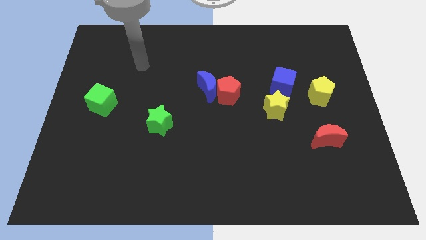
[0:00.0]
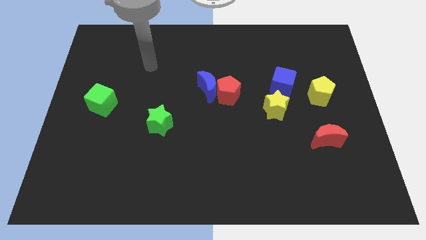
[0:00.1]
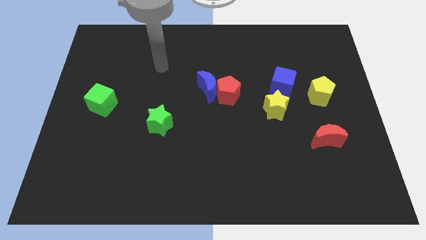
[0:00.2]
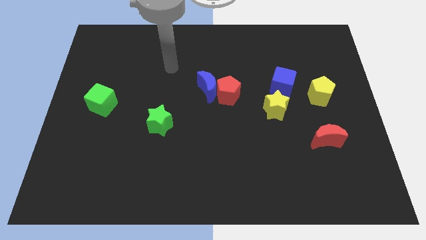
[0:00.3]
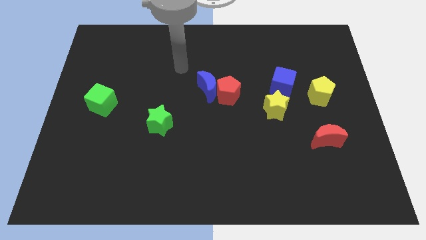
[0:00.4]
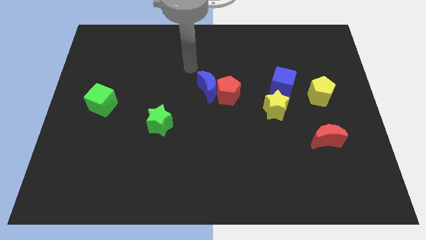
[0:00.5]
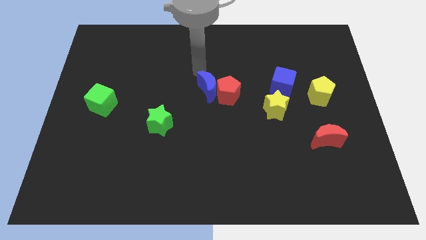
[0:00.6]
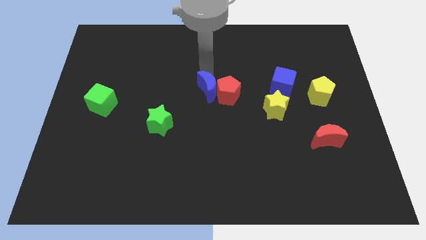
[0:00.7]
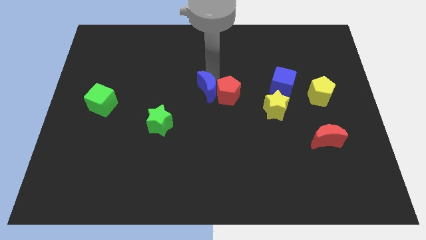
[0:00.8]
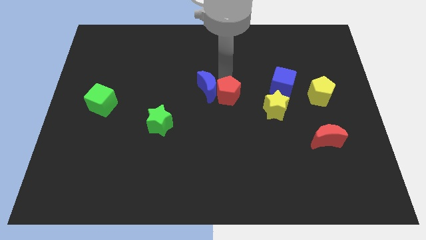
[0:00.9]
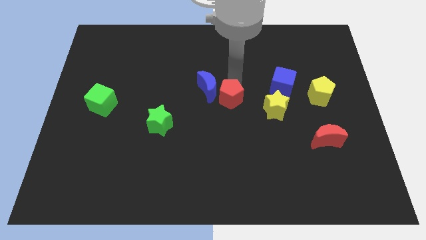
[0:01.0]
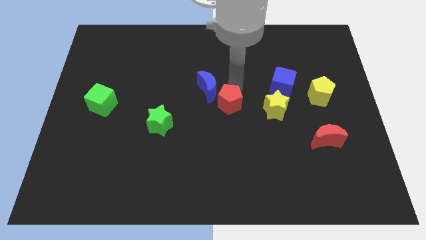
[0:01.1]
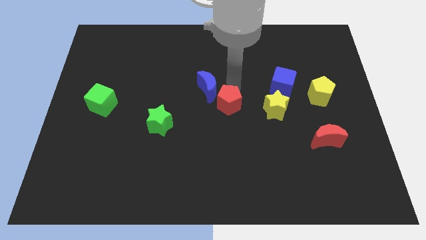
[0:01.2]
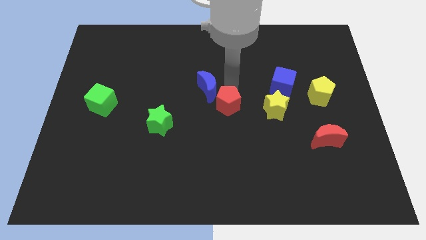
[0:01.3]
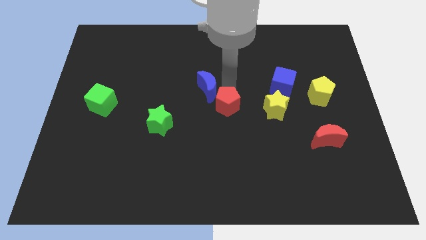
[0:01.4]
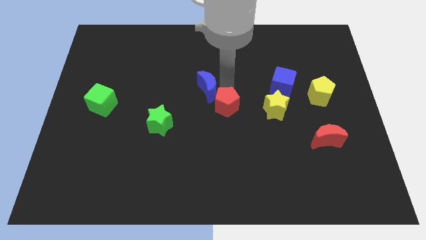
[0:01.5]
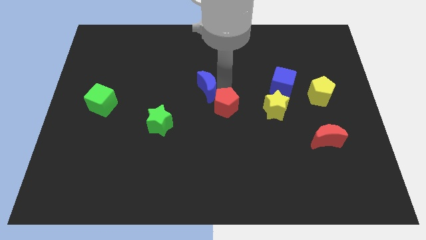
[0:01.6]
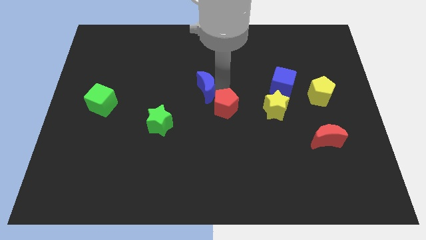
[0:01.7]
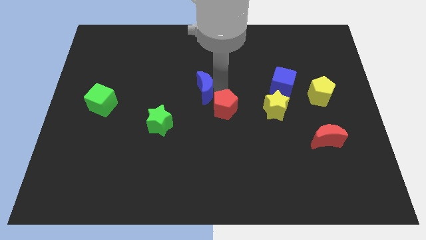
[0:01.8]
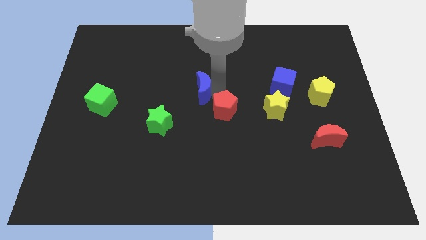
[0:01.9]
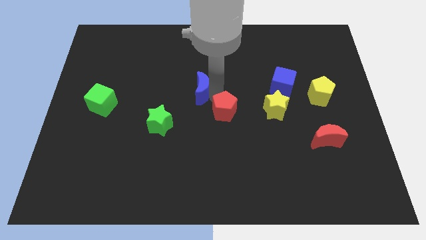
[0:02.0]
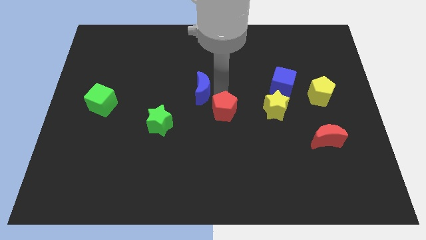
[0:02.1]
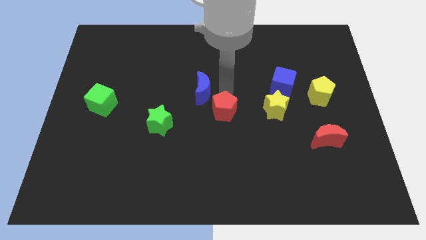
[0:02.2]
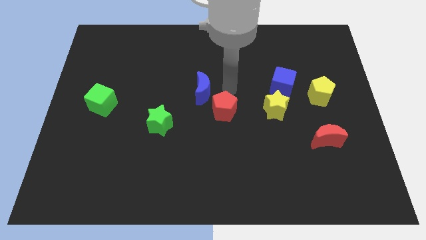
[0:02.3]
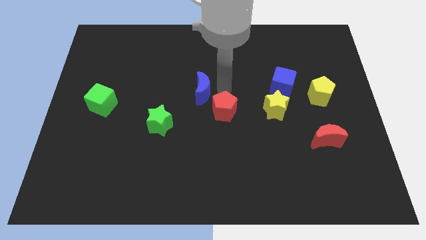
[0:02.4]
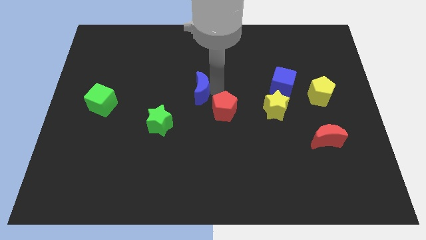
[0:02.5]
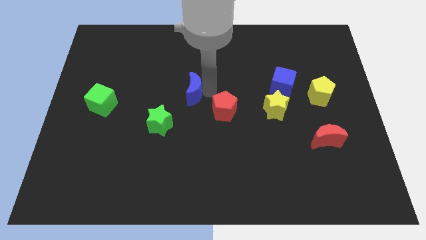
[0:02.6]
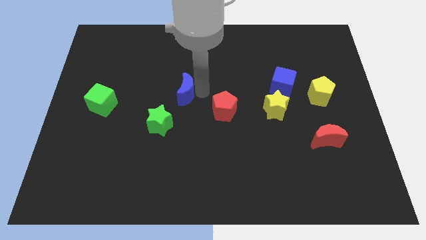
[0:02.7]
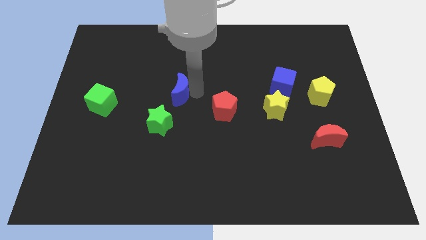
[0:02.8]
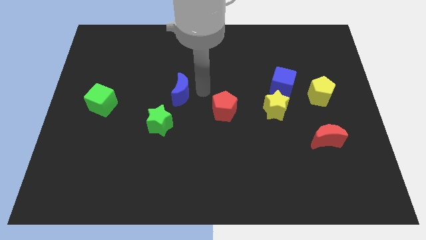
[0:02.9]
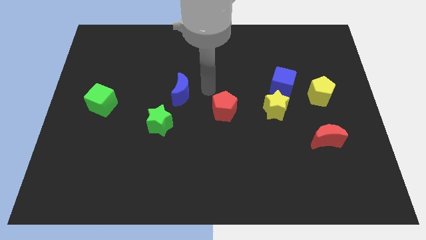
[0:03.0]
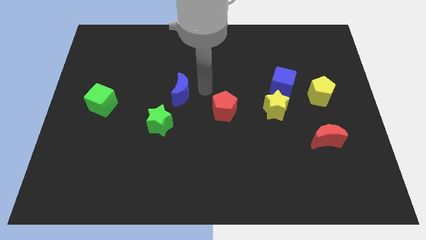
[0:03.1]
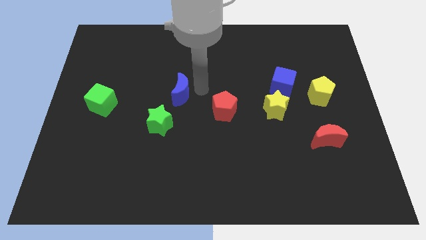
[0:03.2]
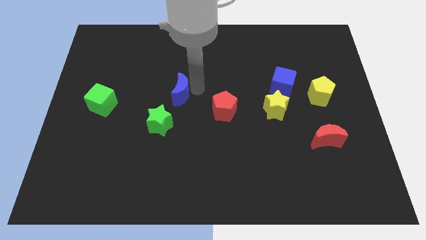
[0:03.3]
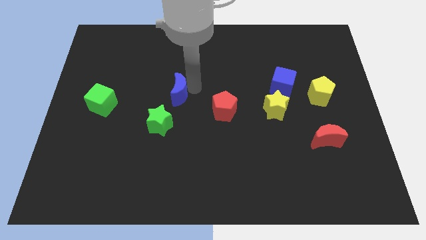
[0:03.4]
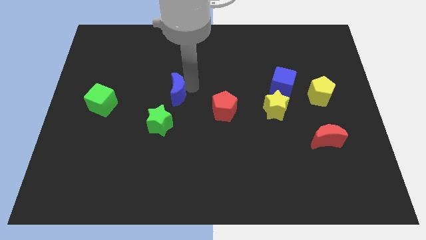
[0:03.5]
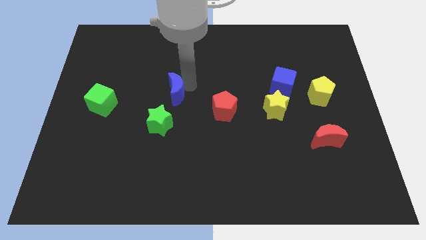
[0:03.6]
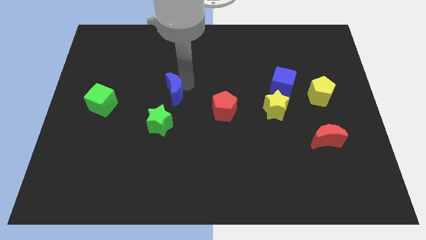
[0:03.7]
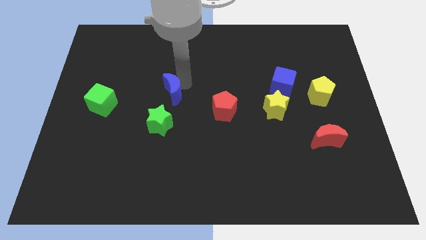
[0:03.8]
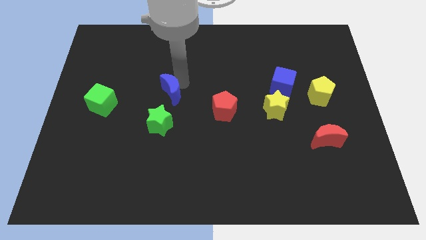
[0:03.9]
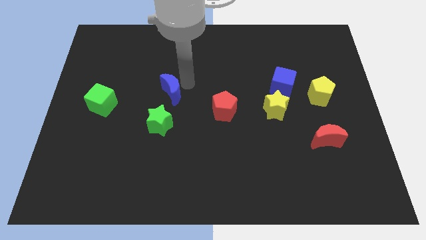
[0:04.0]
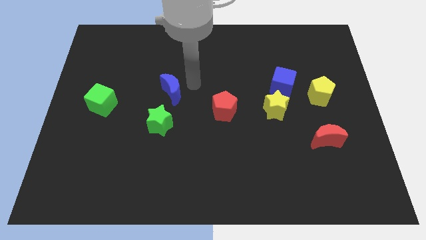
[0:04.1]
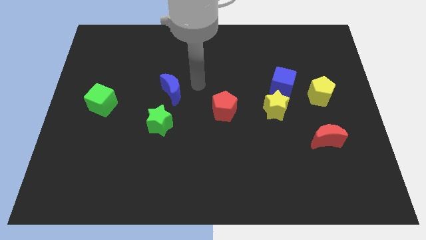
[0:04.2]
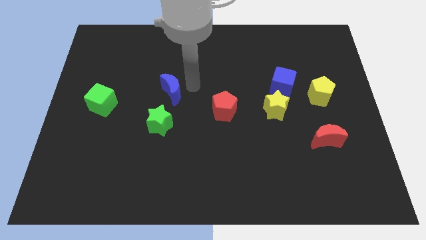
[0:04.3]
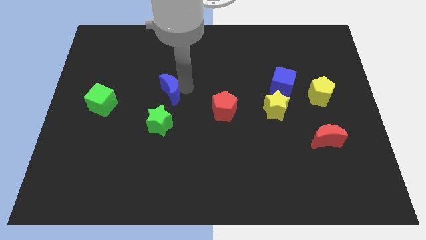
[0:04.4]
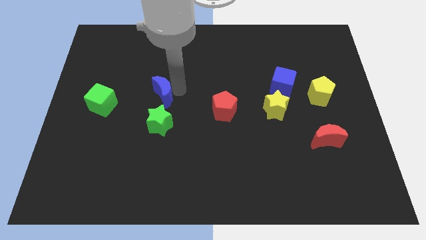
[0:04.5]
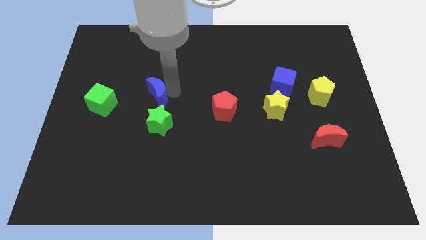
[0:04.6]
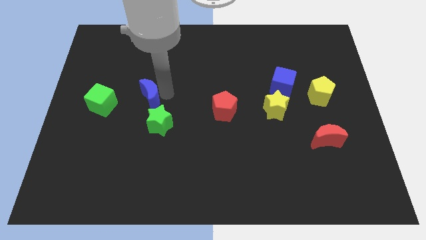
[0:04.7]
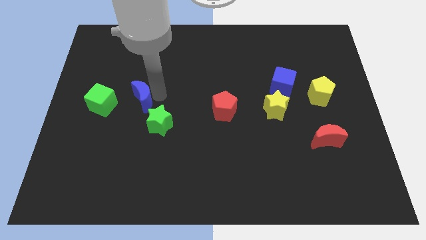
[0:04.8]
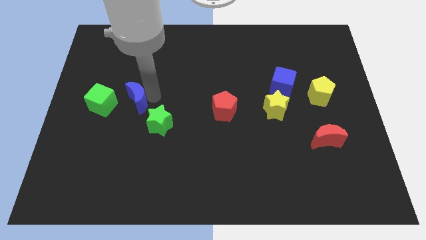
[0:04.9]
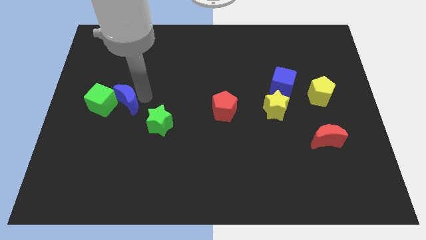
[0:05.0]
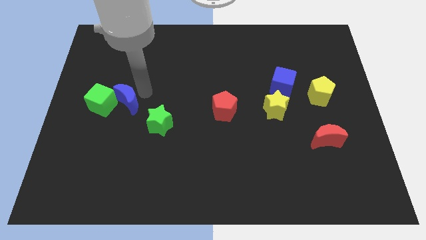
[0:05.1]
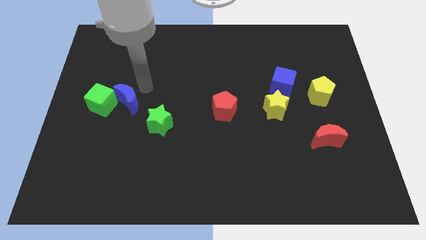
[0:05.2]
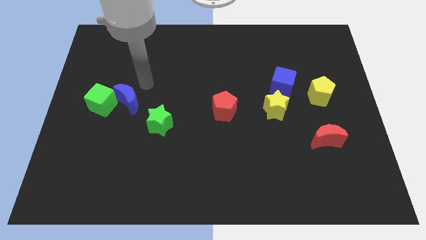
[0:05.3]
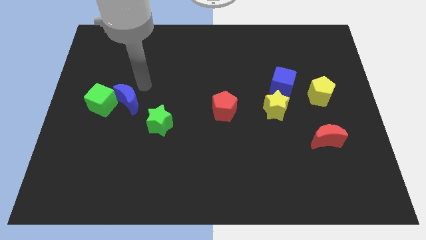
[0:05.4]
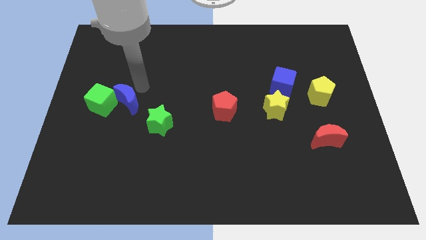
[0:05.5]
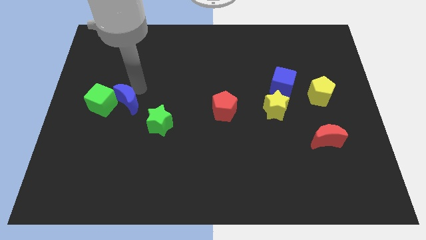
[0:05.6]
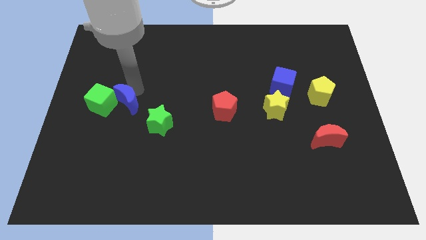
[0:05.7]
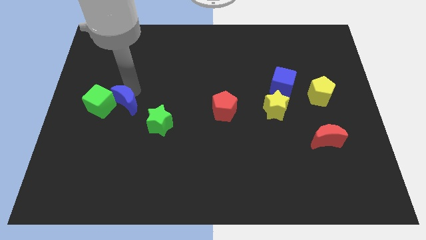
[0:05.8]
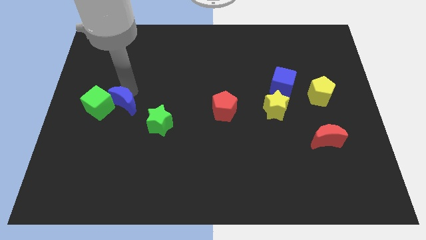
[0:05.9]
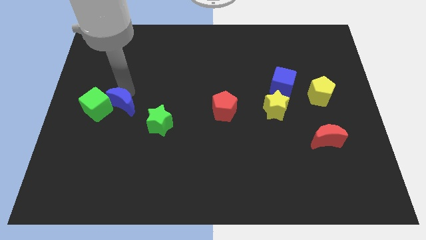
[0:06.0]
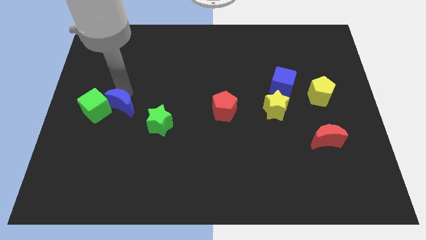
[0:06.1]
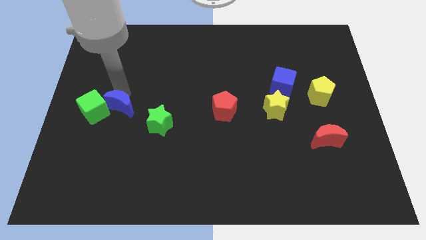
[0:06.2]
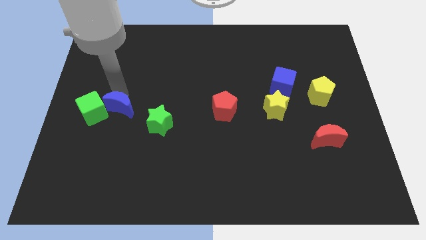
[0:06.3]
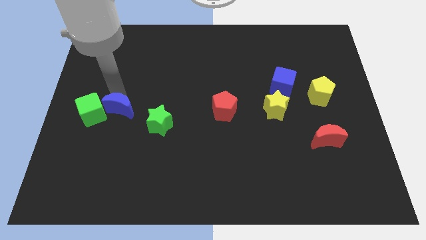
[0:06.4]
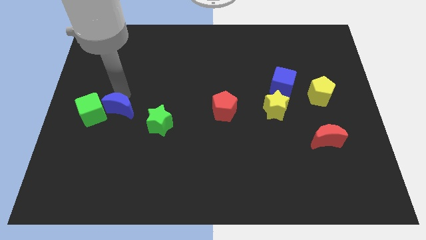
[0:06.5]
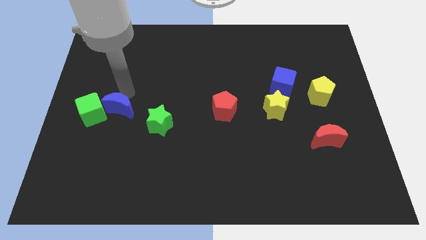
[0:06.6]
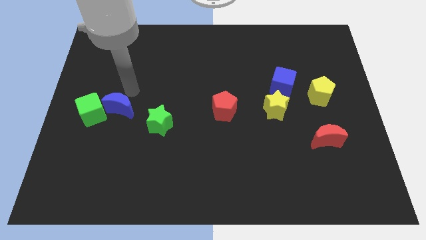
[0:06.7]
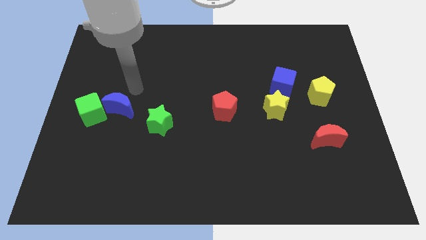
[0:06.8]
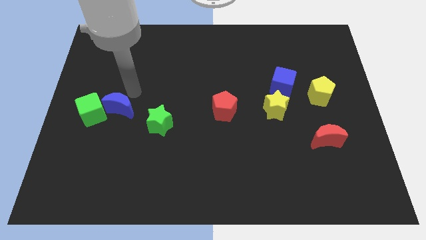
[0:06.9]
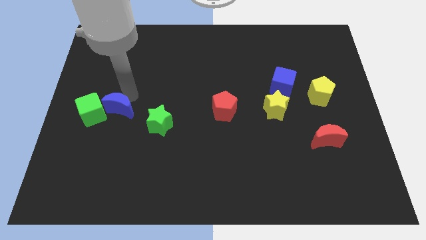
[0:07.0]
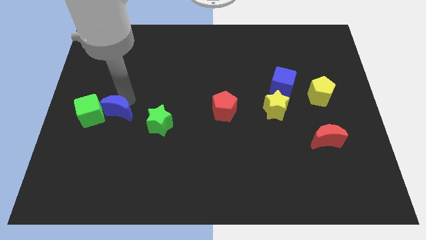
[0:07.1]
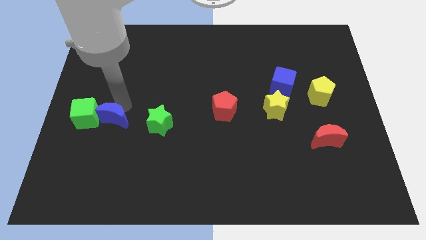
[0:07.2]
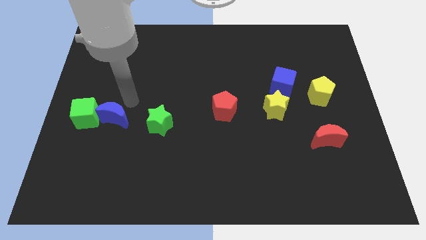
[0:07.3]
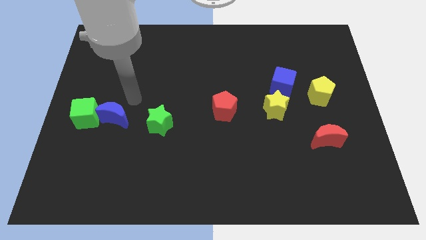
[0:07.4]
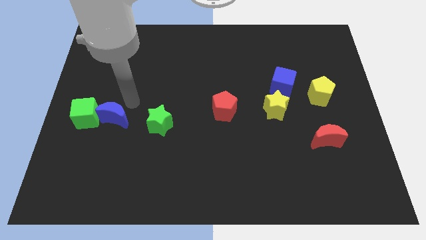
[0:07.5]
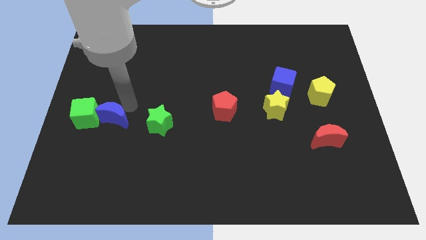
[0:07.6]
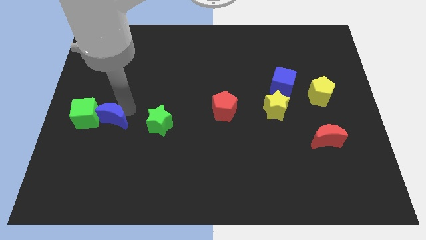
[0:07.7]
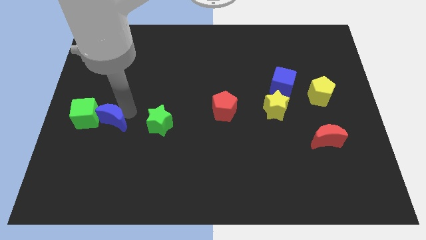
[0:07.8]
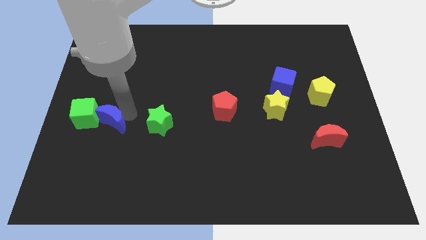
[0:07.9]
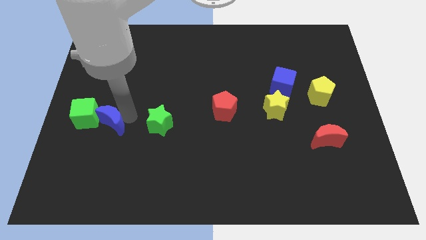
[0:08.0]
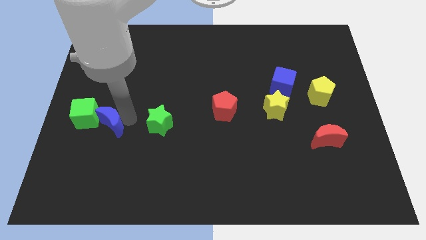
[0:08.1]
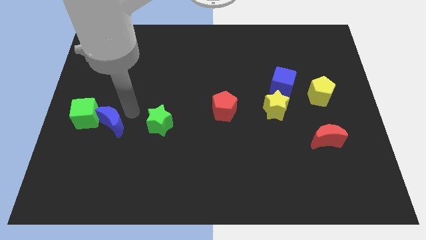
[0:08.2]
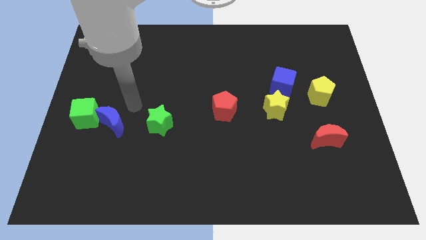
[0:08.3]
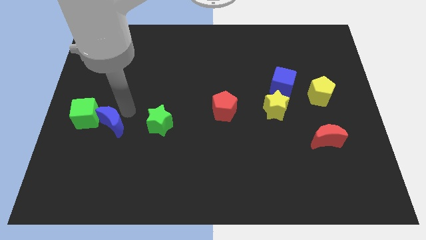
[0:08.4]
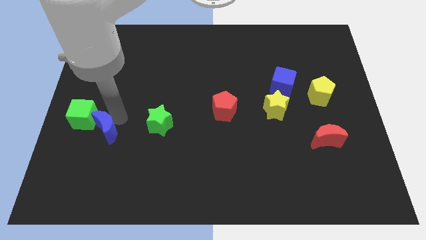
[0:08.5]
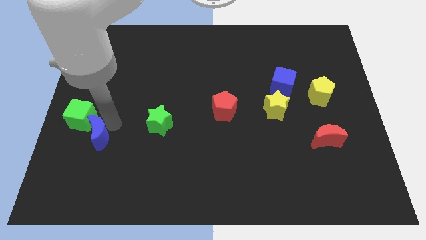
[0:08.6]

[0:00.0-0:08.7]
slide the blue moon to the bottom of the green cube

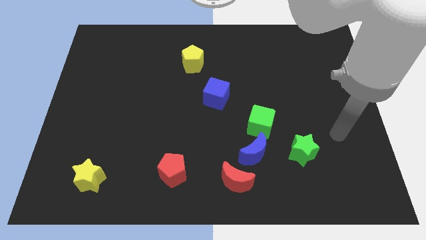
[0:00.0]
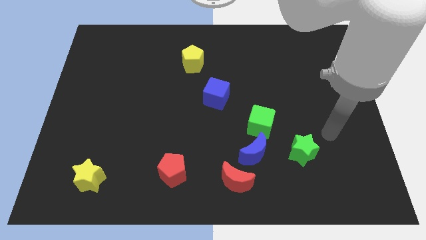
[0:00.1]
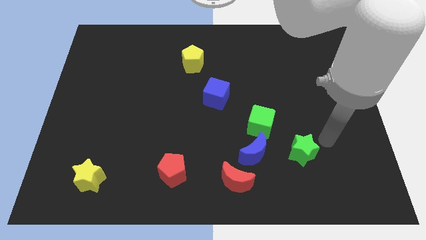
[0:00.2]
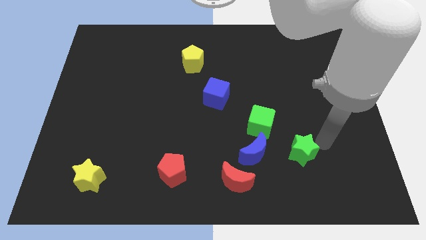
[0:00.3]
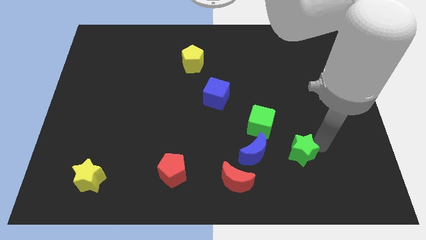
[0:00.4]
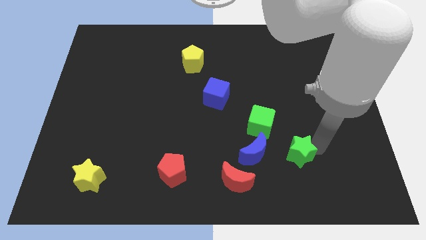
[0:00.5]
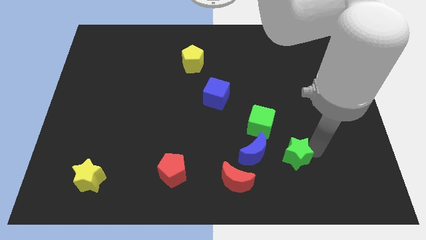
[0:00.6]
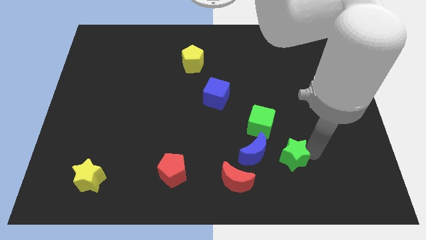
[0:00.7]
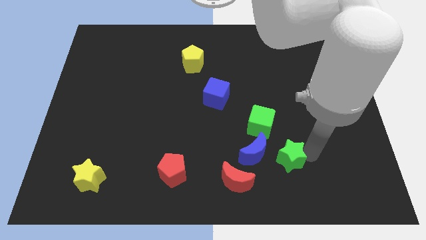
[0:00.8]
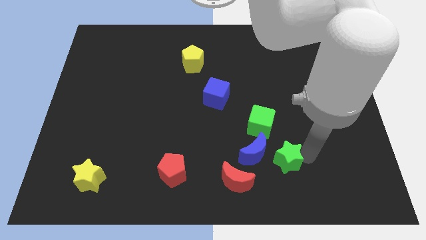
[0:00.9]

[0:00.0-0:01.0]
move the green star below the green cube
